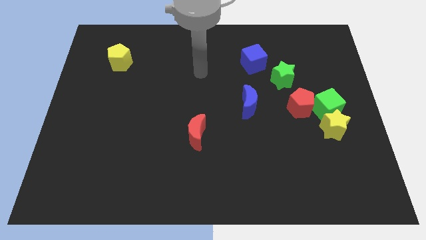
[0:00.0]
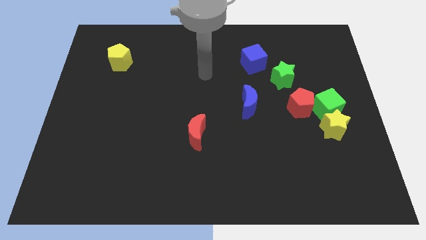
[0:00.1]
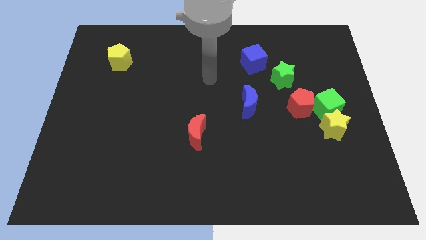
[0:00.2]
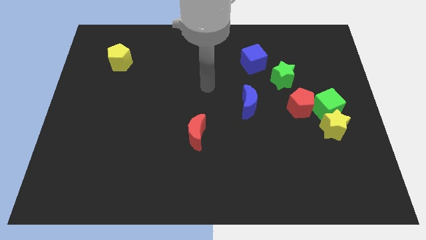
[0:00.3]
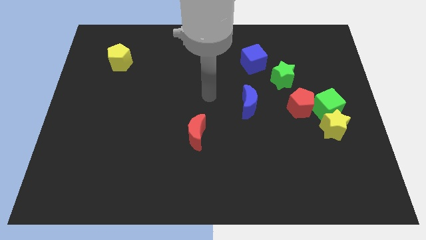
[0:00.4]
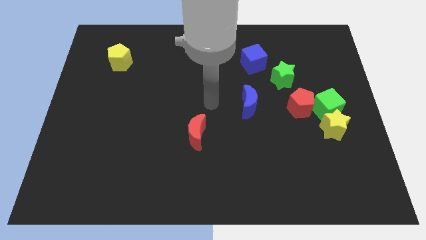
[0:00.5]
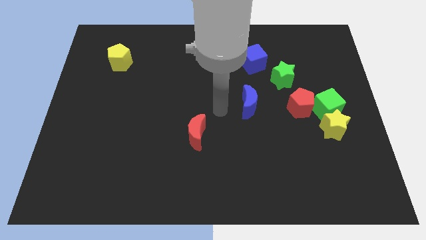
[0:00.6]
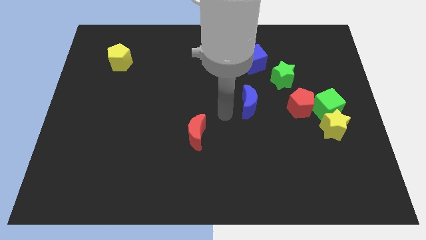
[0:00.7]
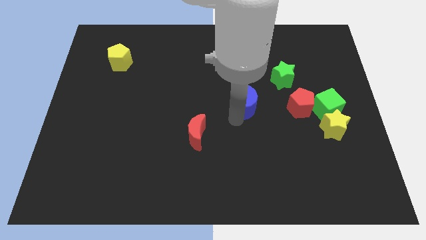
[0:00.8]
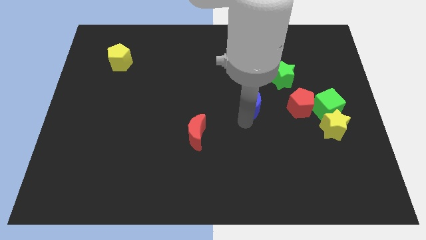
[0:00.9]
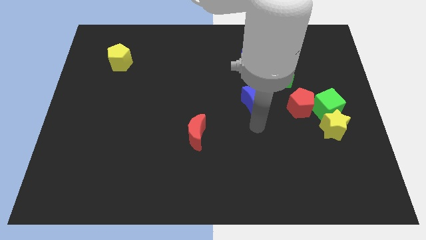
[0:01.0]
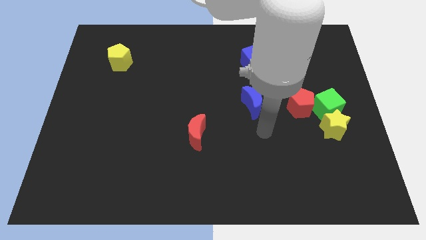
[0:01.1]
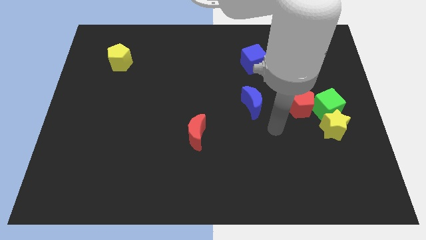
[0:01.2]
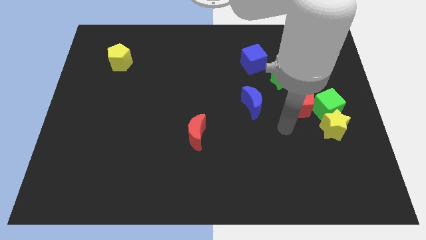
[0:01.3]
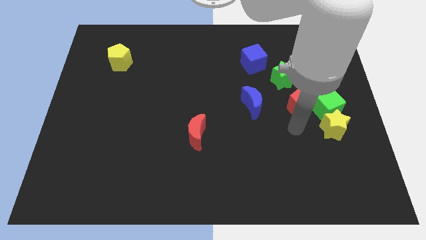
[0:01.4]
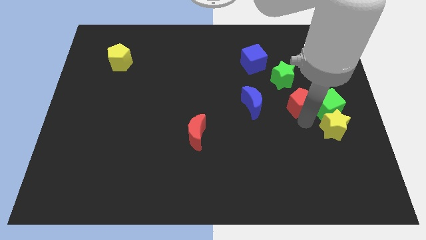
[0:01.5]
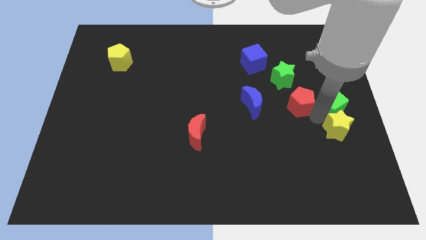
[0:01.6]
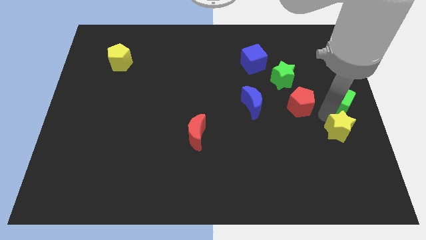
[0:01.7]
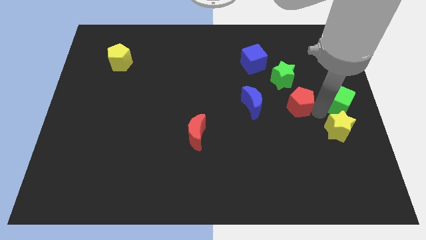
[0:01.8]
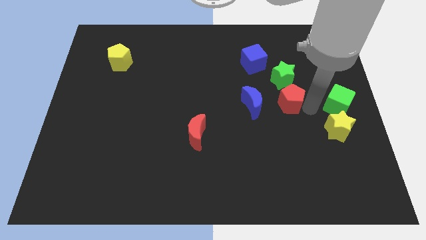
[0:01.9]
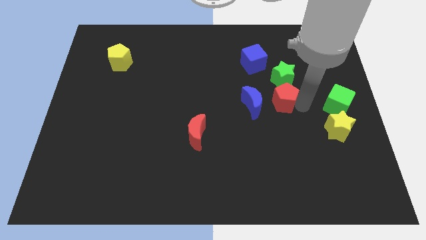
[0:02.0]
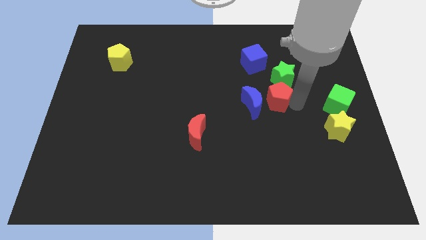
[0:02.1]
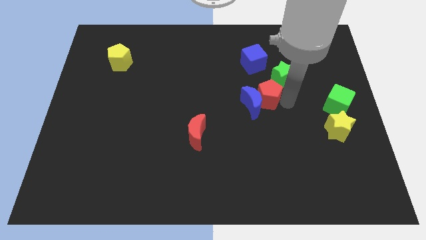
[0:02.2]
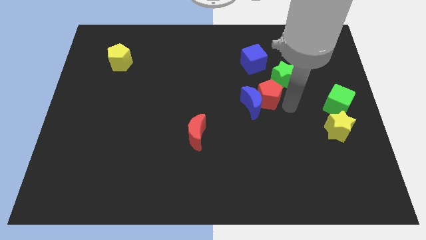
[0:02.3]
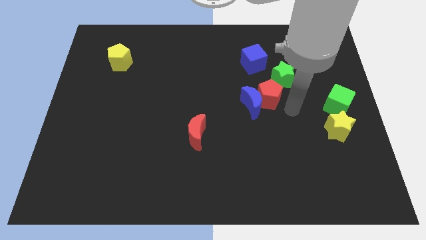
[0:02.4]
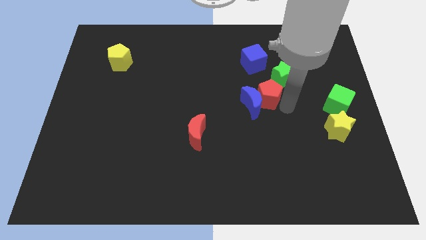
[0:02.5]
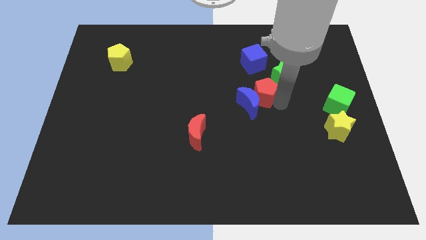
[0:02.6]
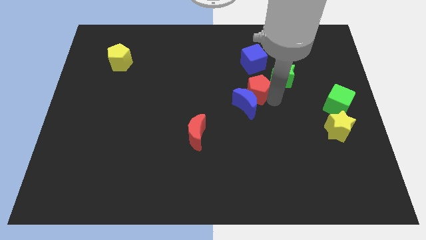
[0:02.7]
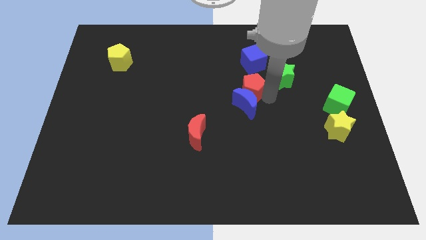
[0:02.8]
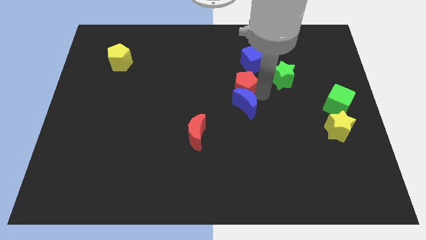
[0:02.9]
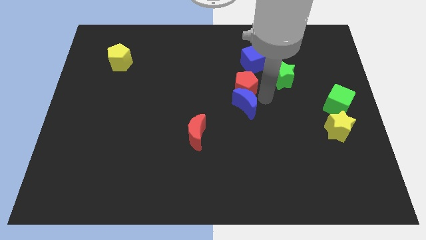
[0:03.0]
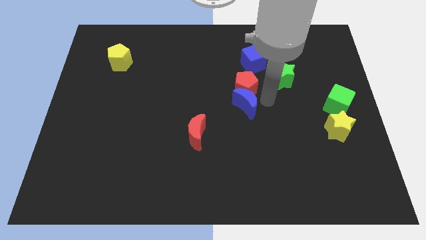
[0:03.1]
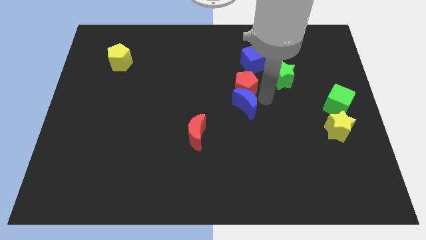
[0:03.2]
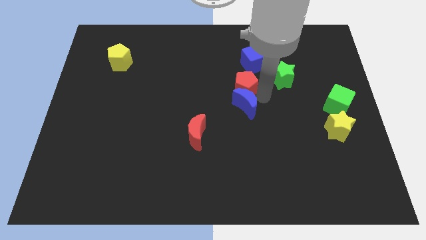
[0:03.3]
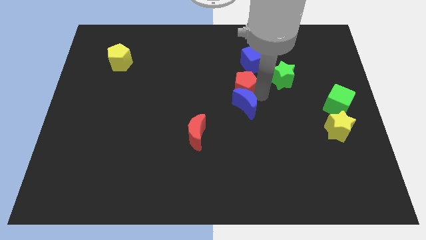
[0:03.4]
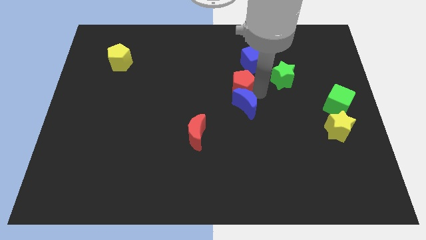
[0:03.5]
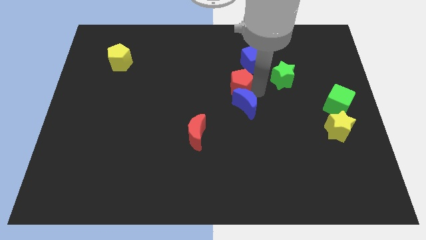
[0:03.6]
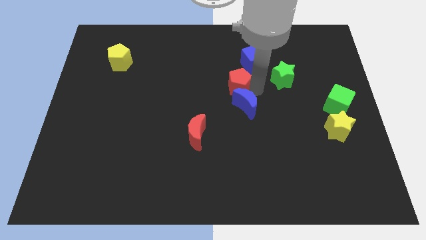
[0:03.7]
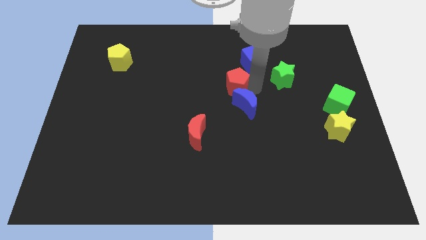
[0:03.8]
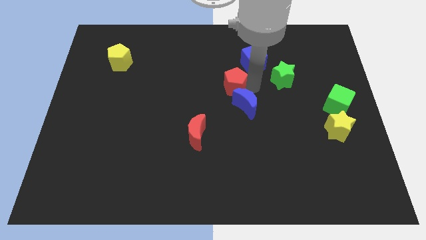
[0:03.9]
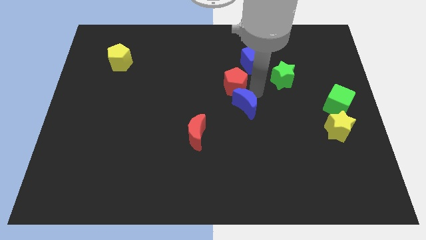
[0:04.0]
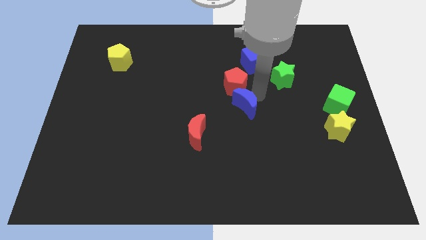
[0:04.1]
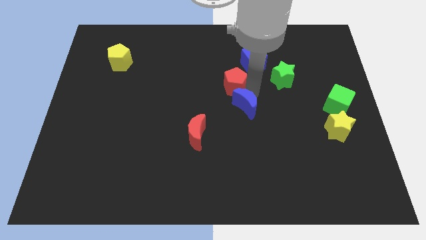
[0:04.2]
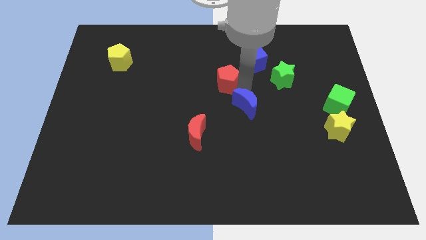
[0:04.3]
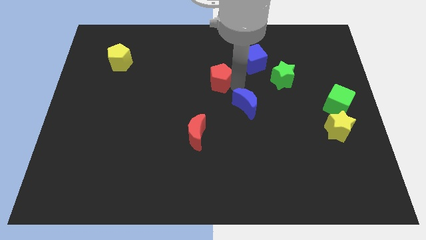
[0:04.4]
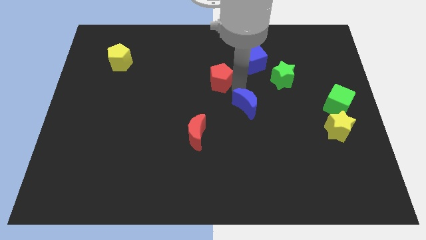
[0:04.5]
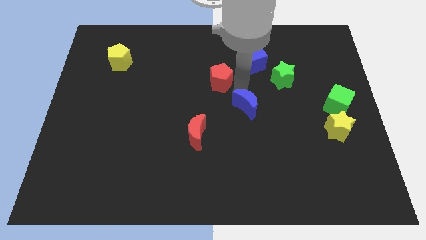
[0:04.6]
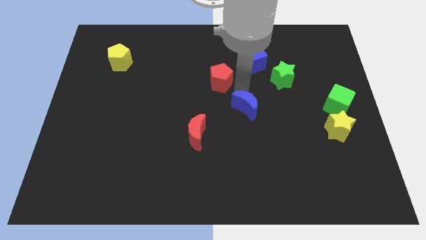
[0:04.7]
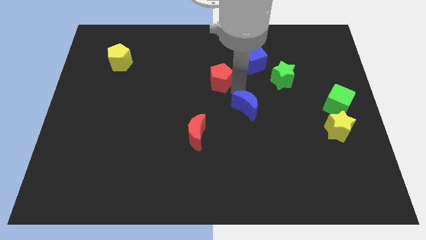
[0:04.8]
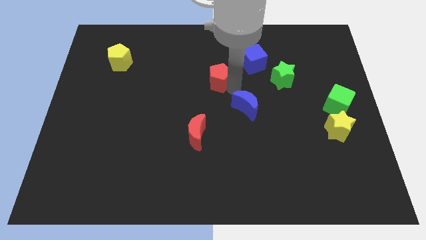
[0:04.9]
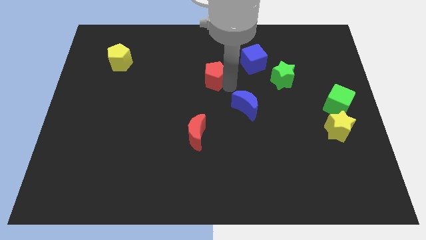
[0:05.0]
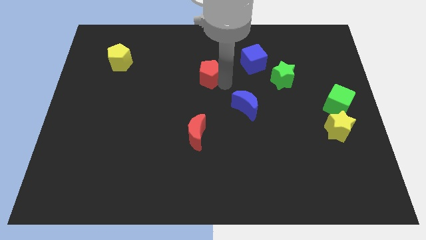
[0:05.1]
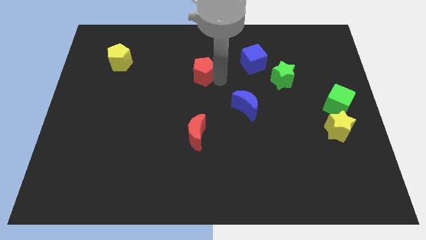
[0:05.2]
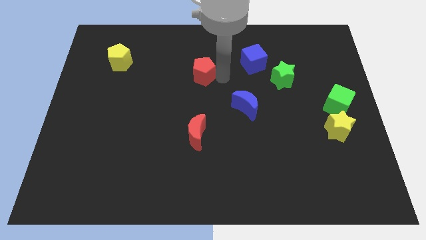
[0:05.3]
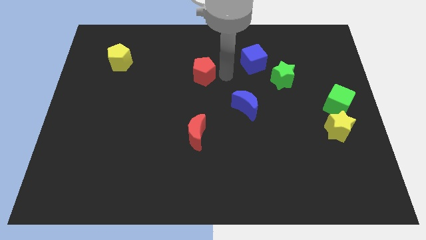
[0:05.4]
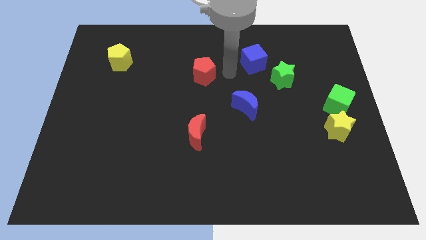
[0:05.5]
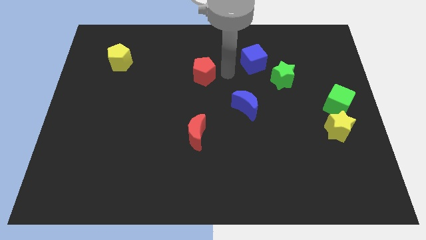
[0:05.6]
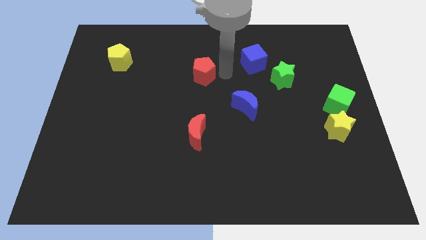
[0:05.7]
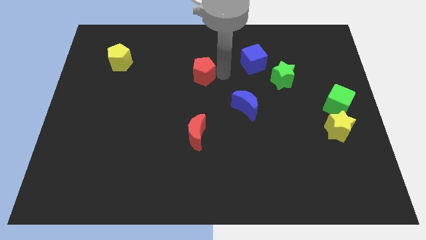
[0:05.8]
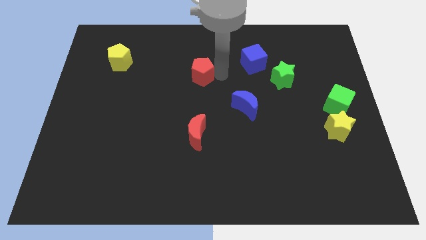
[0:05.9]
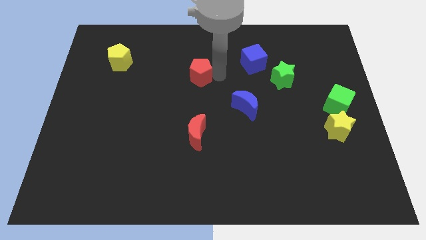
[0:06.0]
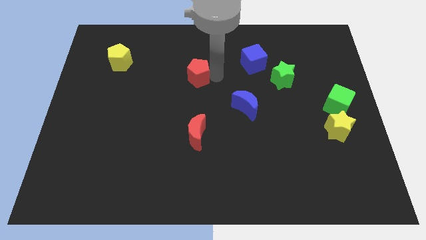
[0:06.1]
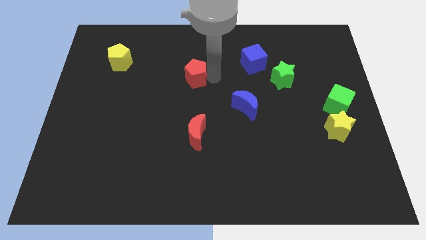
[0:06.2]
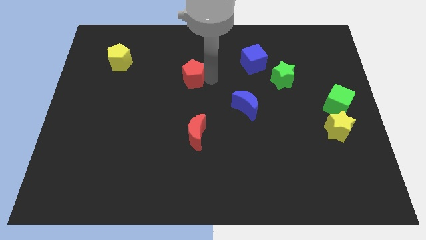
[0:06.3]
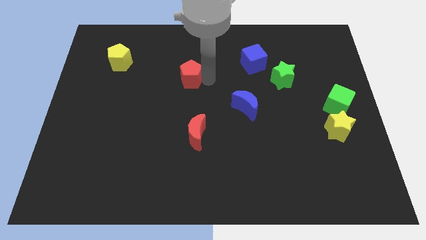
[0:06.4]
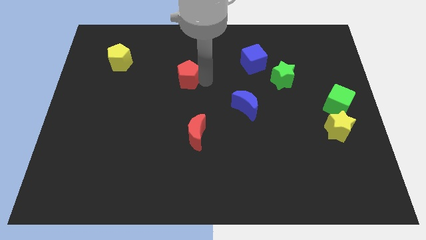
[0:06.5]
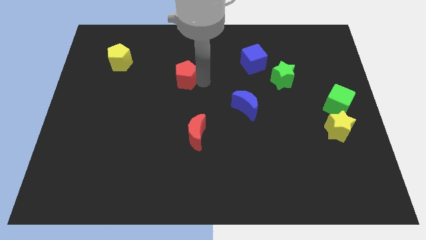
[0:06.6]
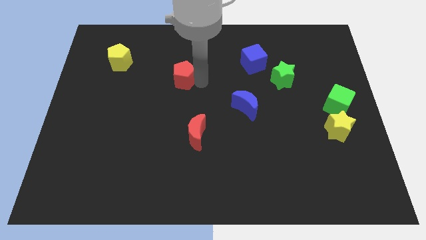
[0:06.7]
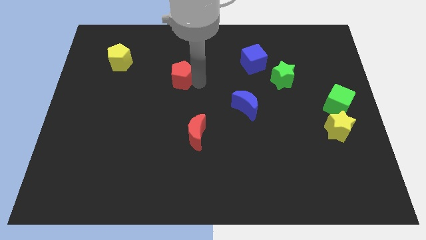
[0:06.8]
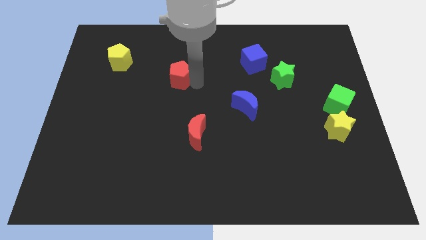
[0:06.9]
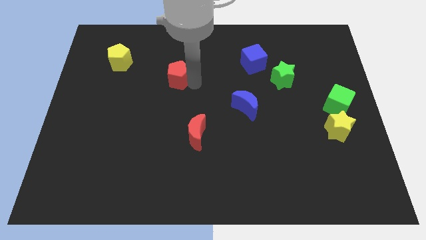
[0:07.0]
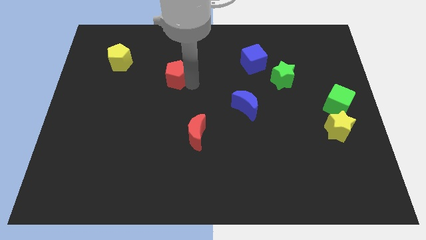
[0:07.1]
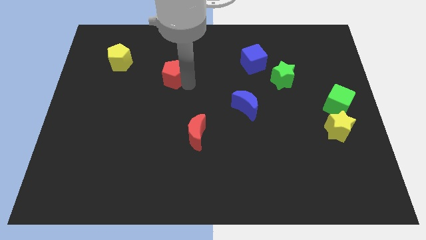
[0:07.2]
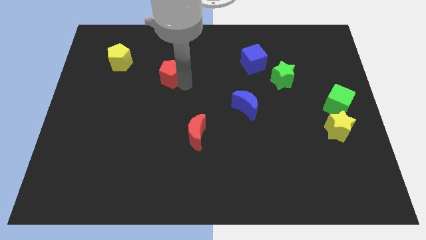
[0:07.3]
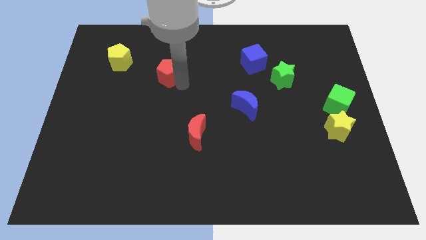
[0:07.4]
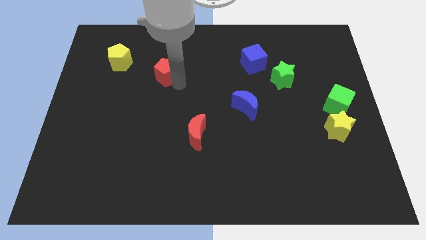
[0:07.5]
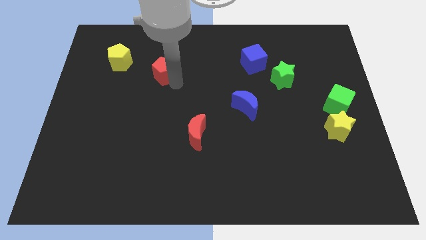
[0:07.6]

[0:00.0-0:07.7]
put the red pentagon right of the yellow pentagon
